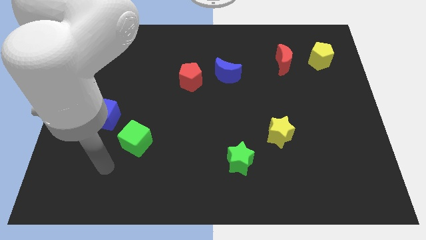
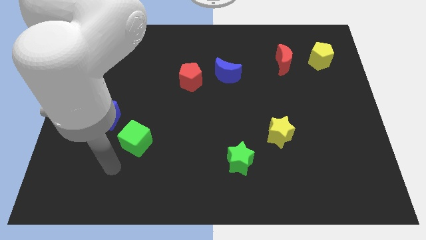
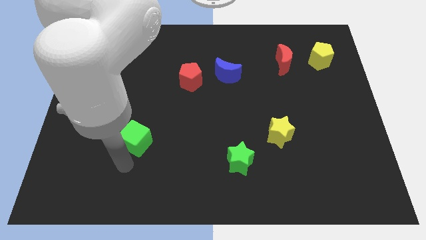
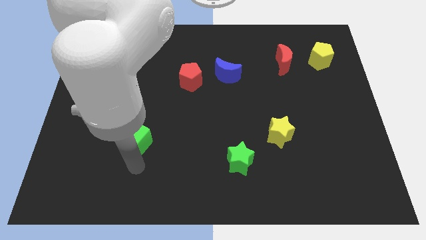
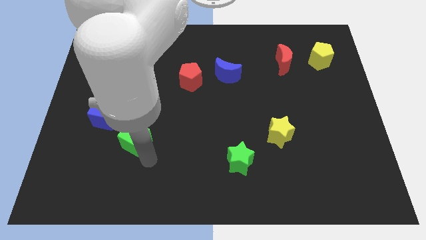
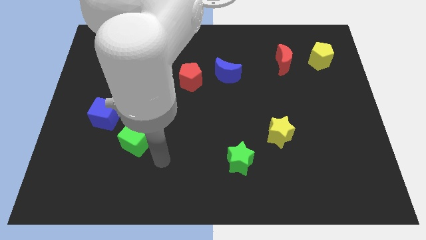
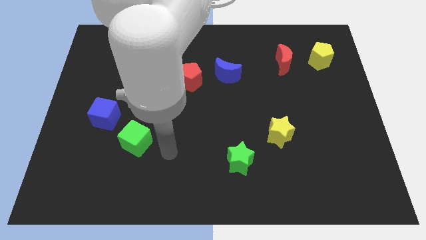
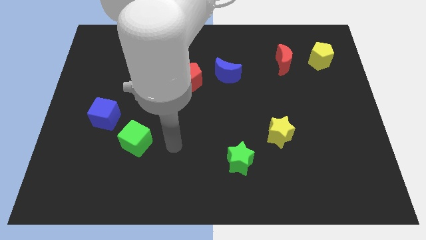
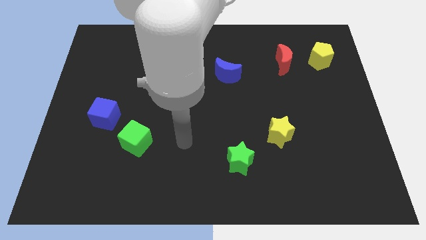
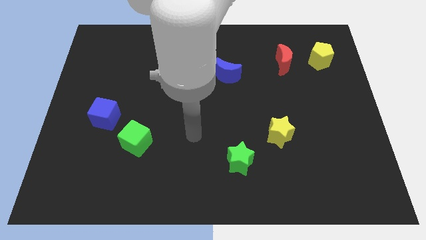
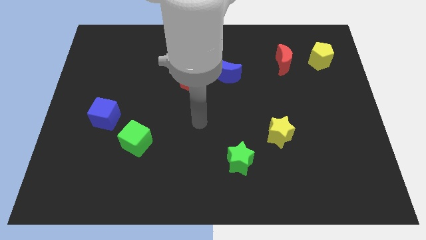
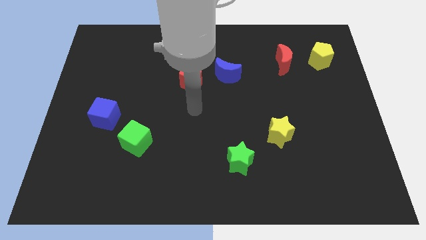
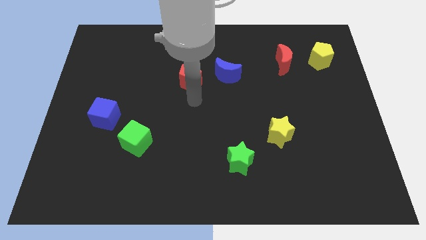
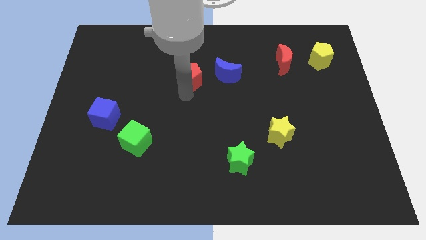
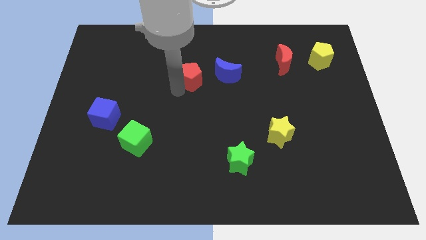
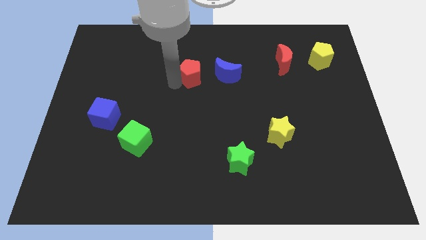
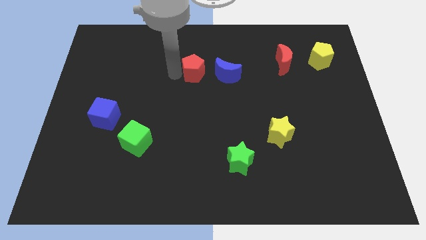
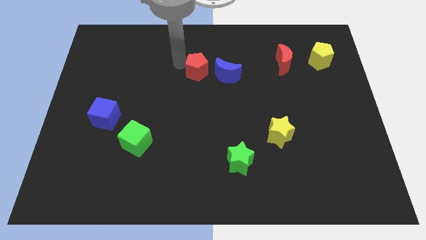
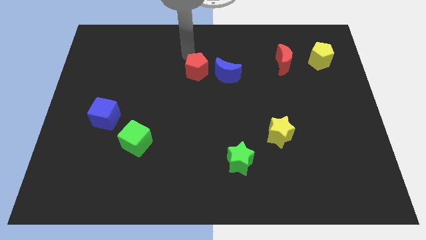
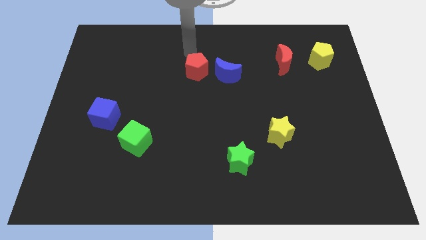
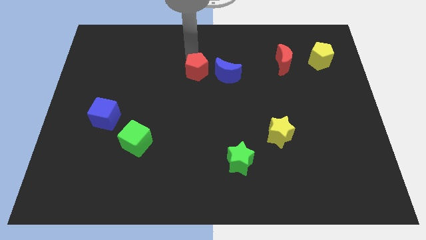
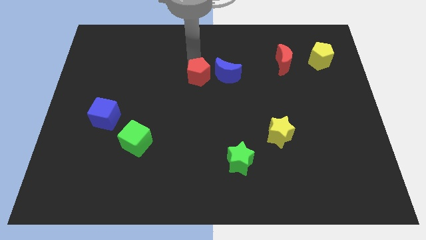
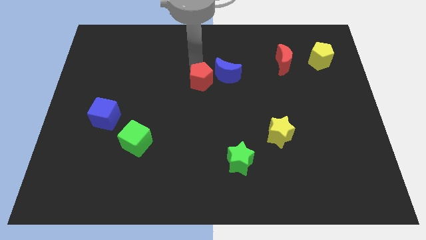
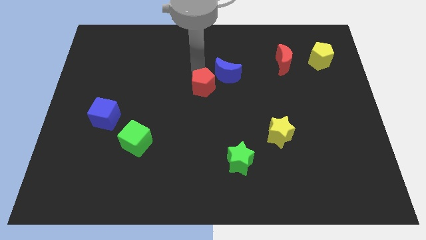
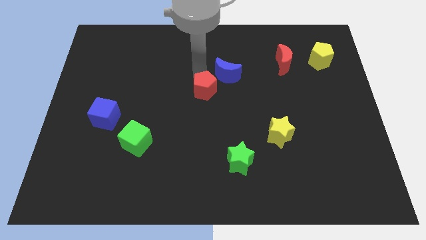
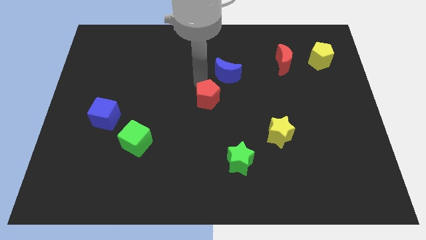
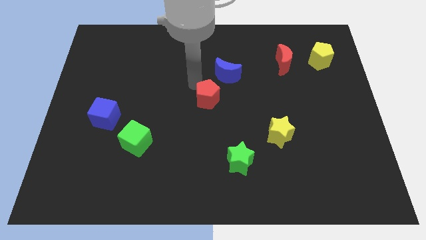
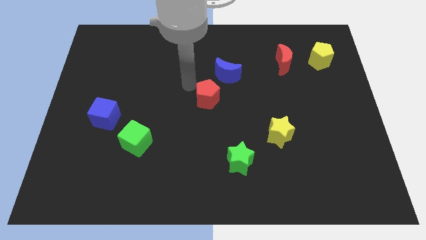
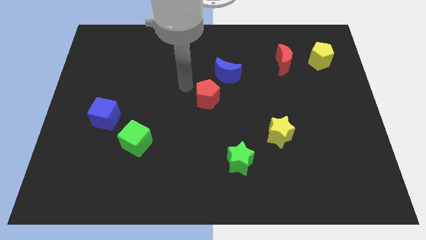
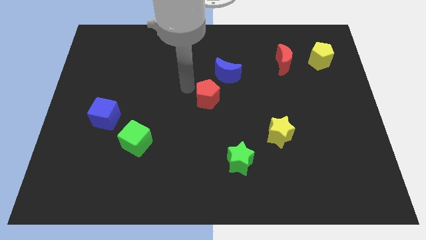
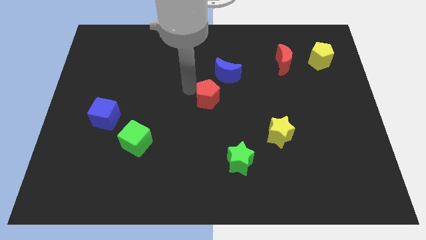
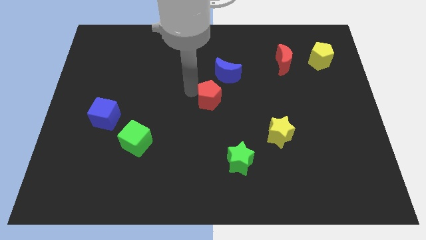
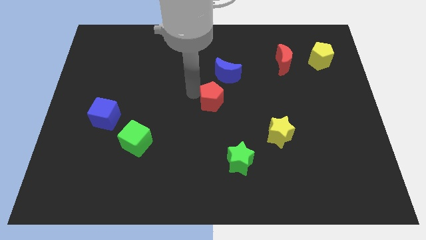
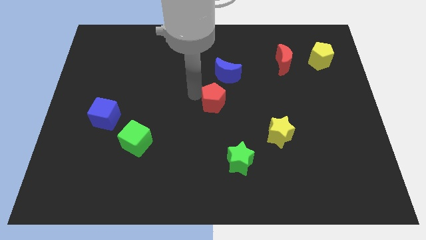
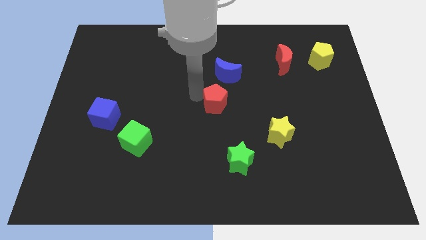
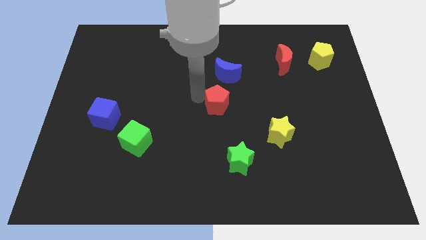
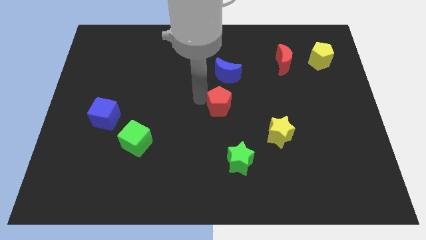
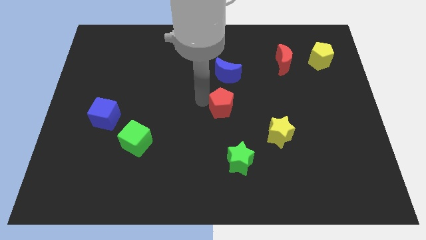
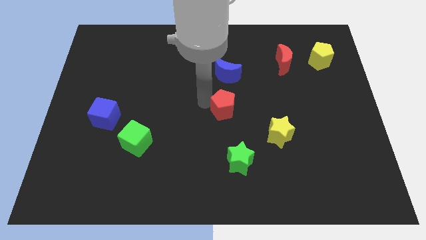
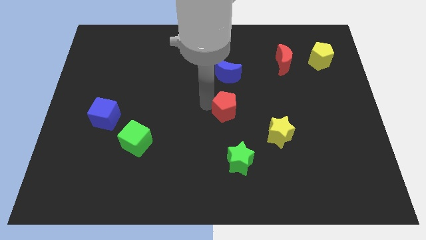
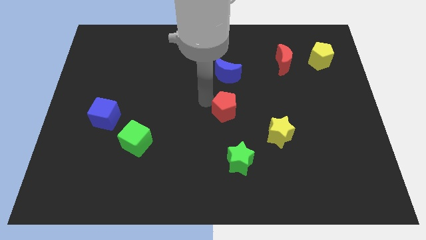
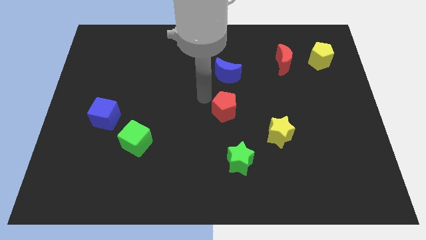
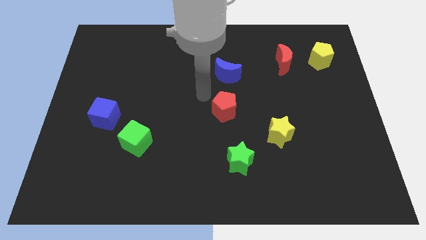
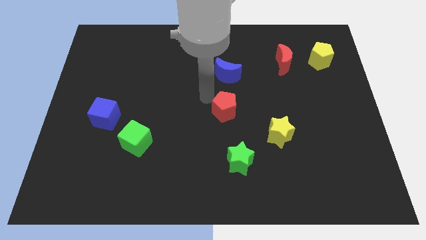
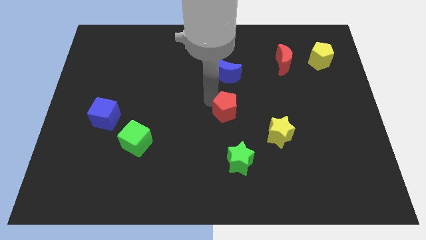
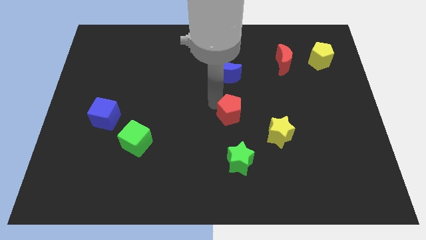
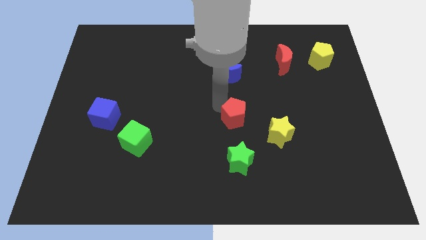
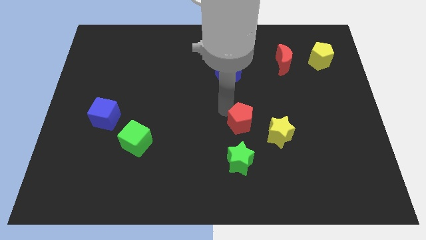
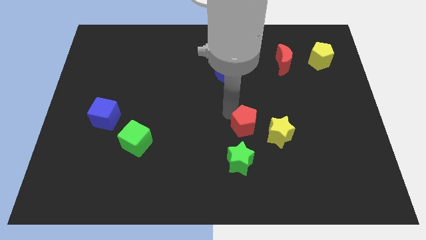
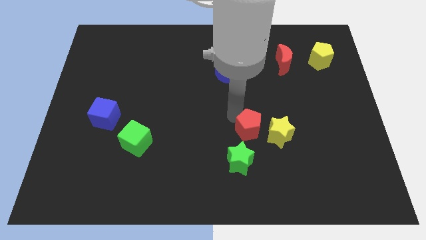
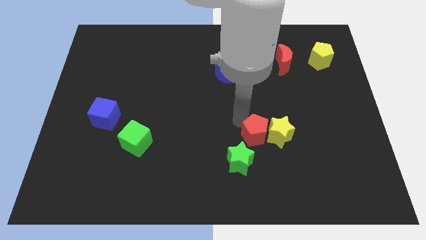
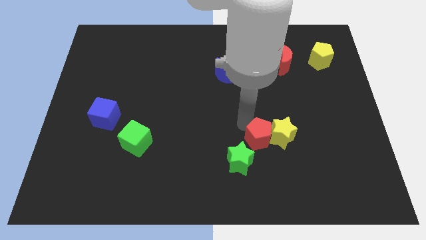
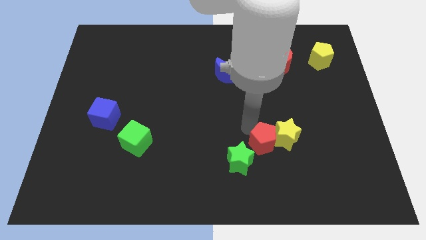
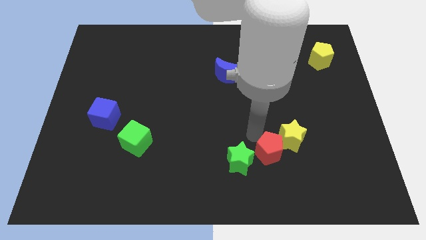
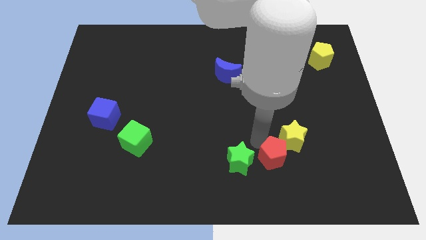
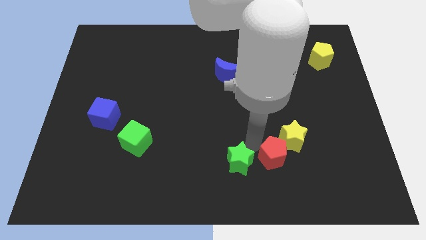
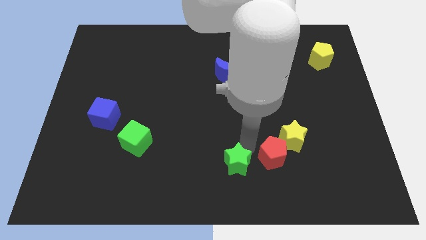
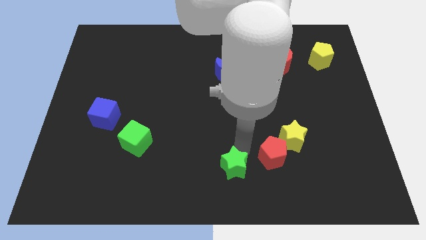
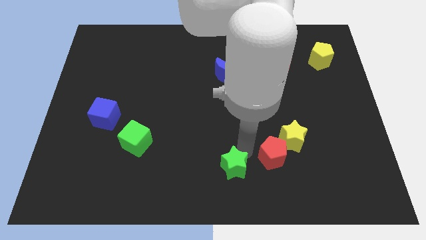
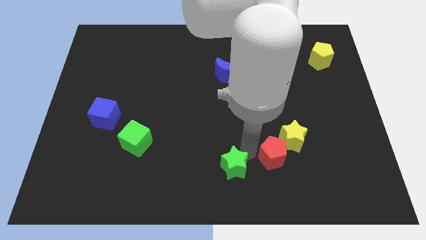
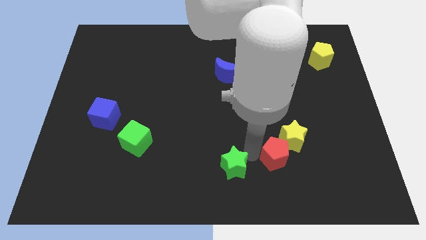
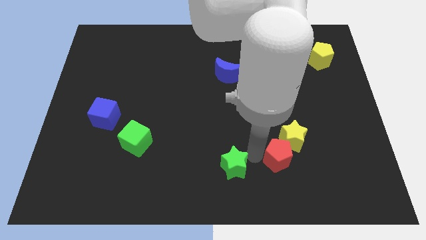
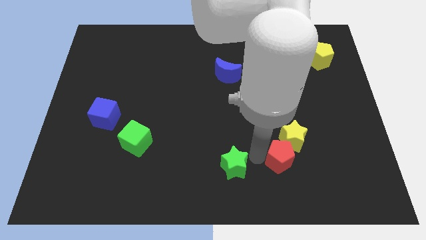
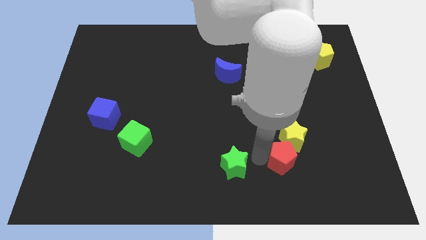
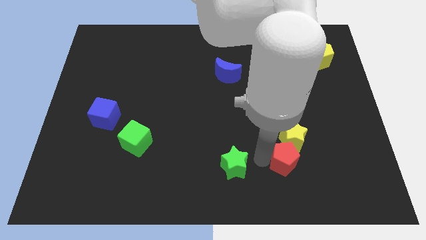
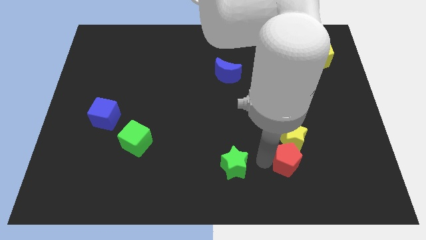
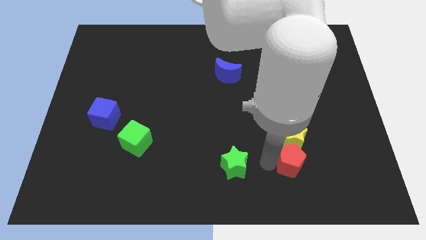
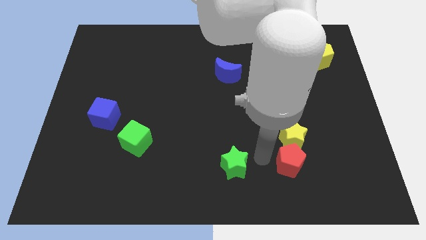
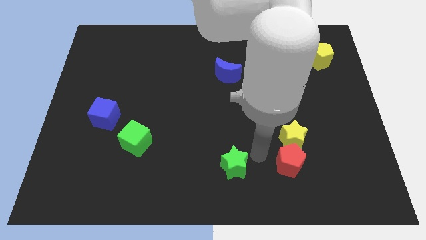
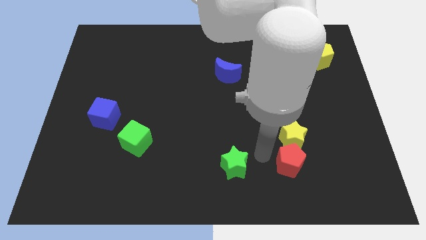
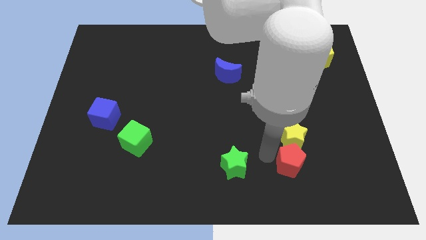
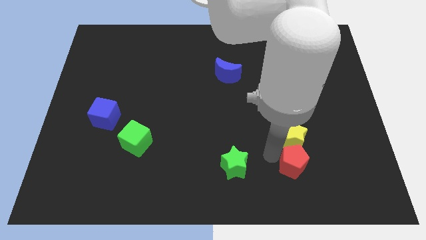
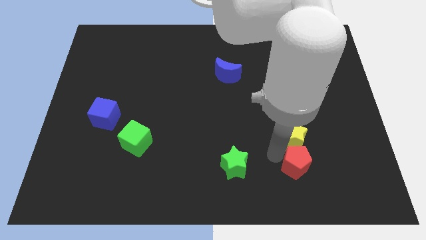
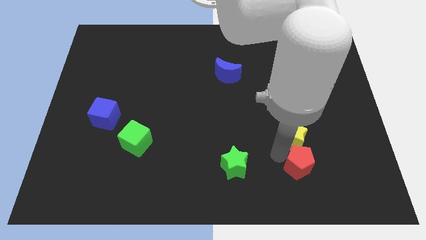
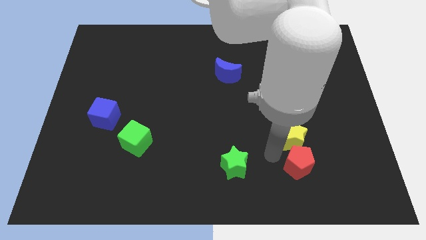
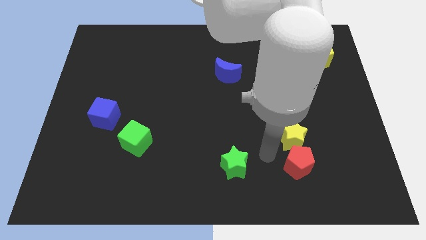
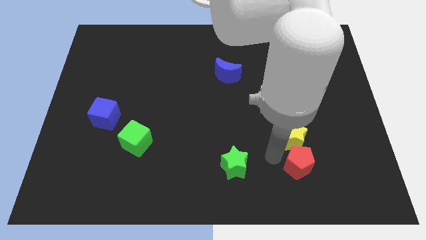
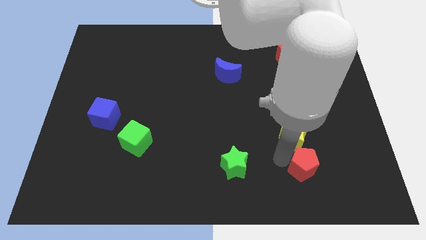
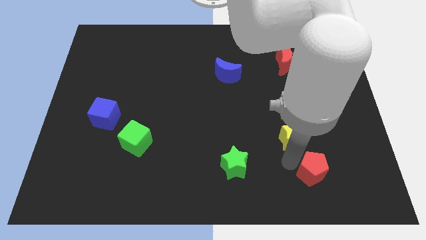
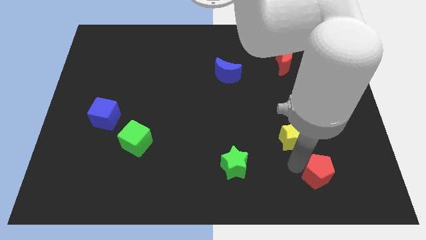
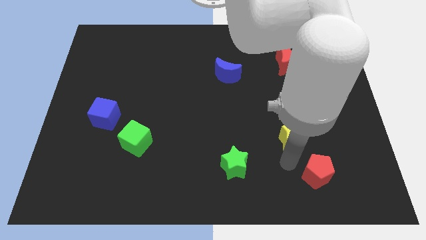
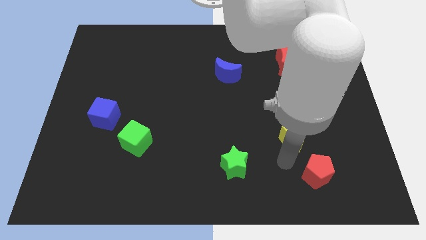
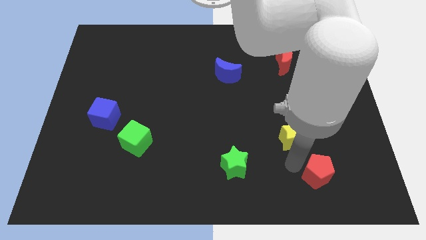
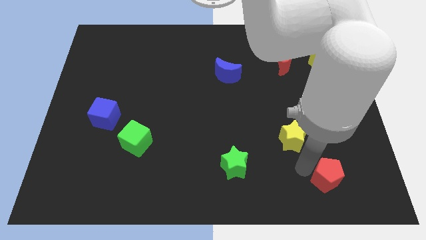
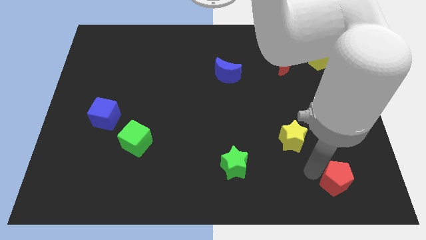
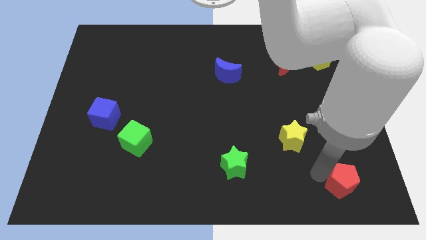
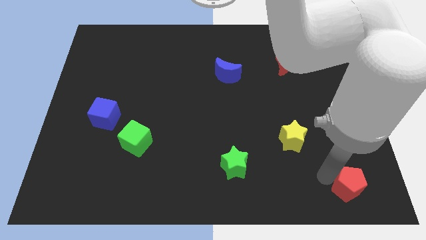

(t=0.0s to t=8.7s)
slide the red pentagon to the lower right corner
